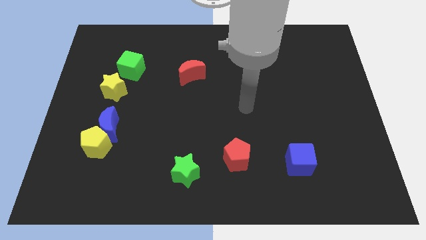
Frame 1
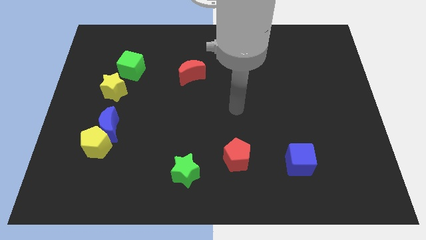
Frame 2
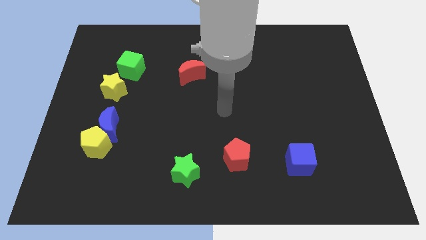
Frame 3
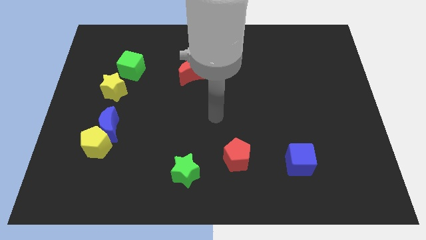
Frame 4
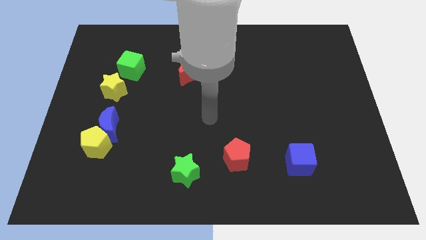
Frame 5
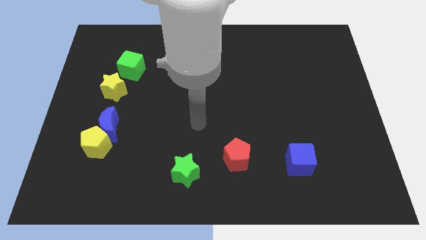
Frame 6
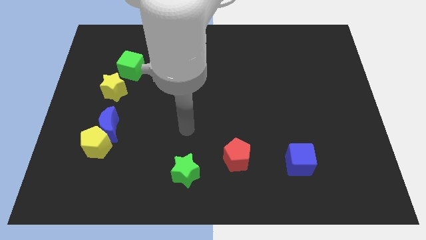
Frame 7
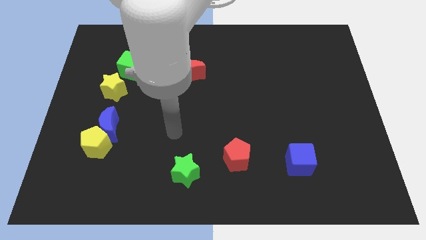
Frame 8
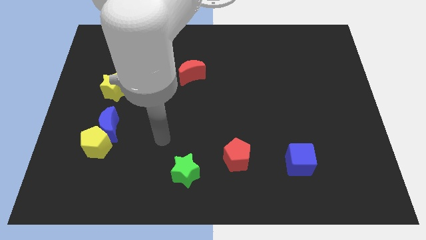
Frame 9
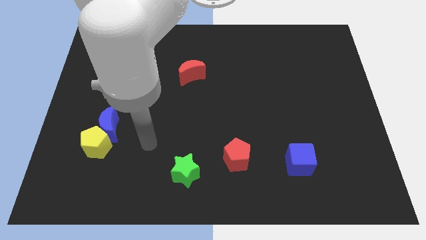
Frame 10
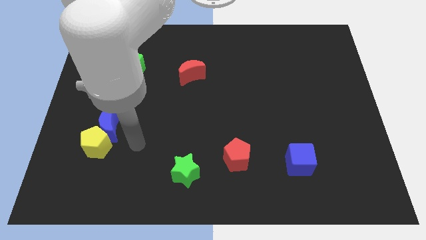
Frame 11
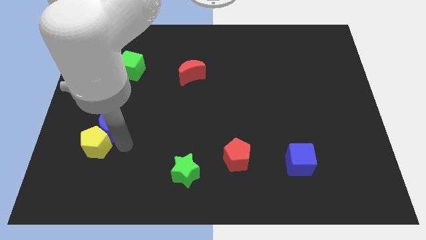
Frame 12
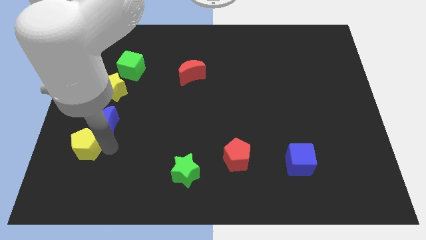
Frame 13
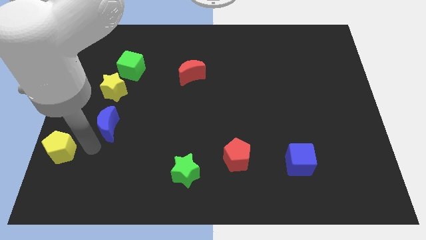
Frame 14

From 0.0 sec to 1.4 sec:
move the blue moon away from the yellow pentagon

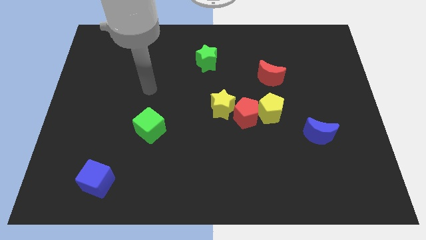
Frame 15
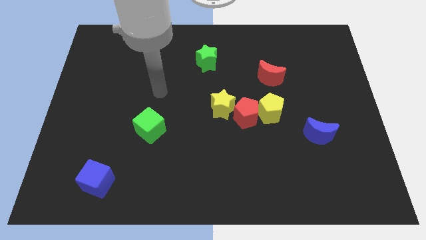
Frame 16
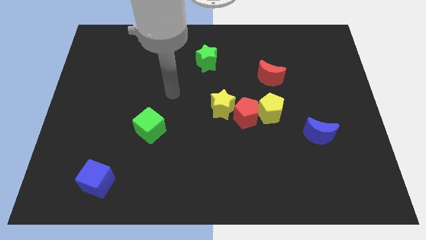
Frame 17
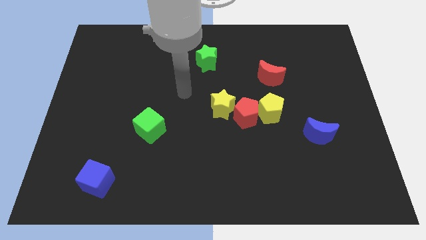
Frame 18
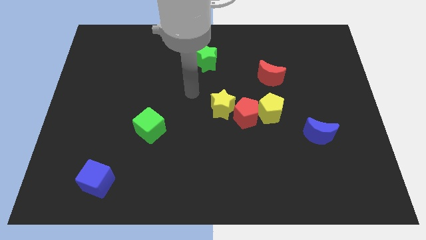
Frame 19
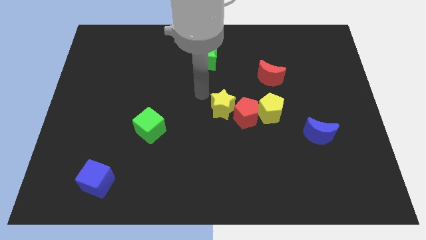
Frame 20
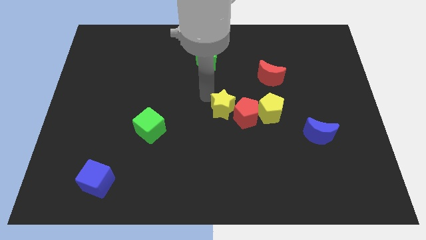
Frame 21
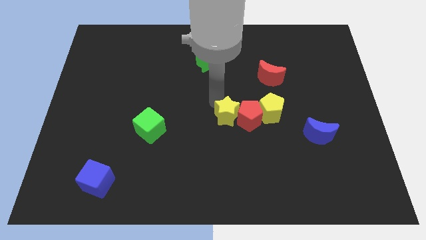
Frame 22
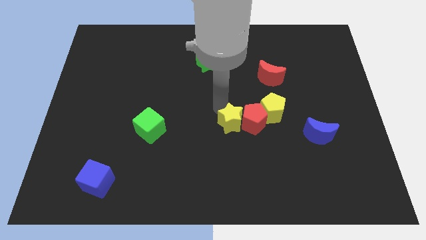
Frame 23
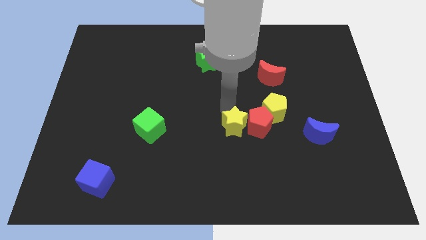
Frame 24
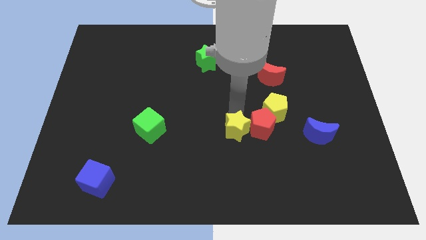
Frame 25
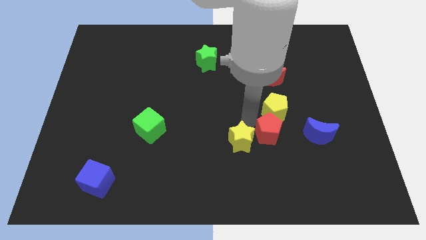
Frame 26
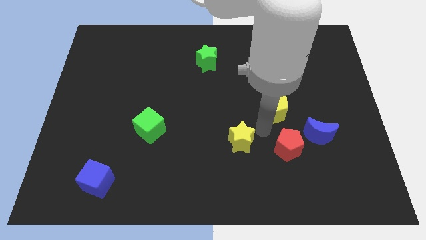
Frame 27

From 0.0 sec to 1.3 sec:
separate the yellow pentagon from the red pentagon

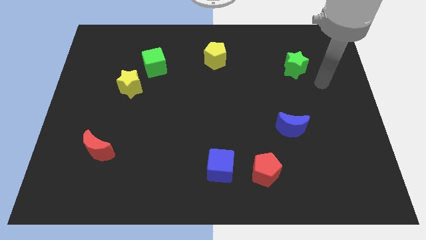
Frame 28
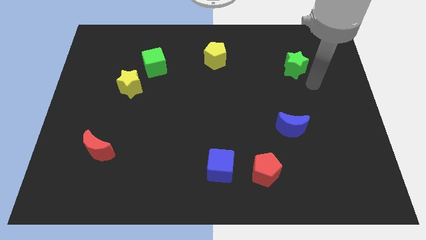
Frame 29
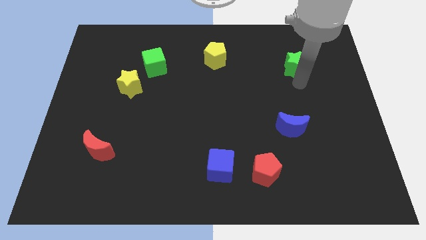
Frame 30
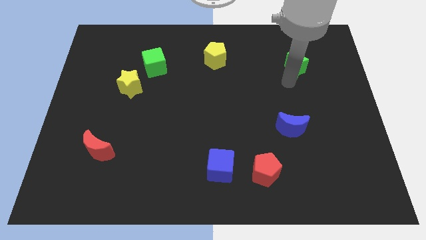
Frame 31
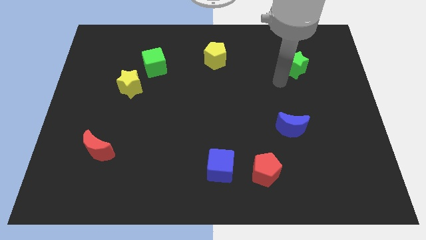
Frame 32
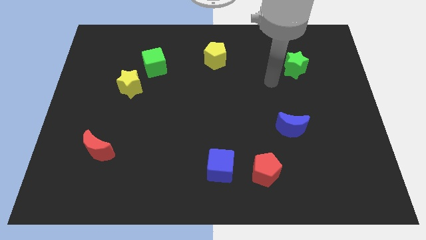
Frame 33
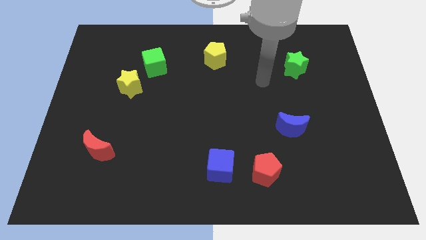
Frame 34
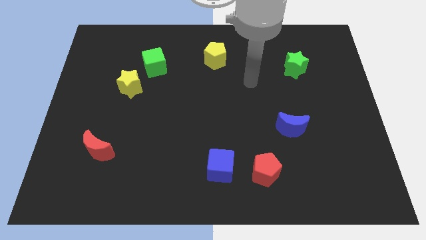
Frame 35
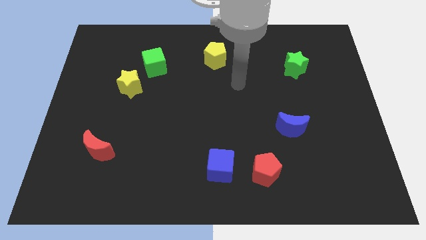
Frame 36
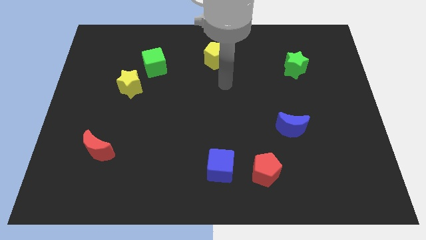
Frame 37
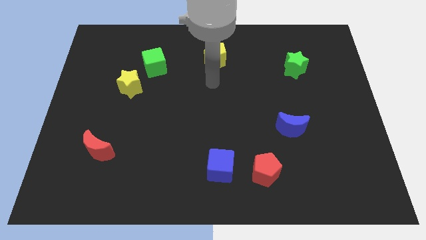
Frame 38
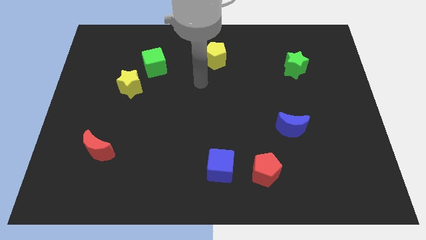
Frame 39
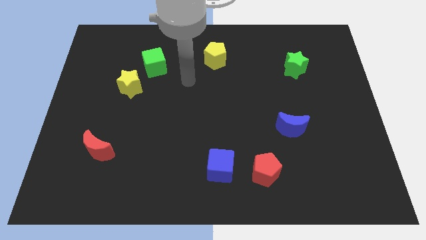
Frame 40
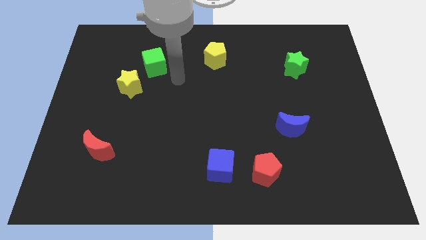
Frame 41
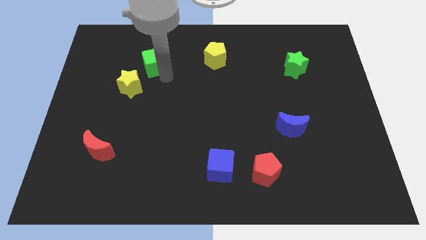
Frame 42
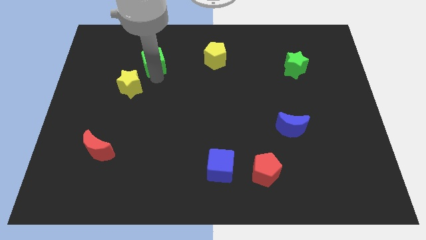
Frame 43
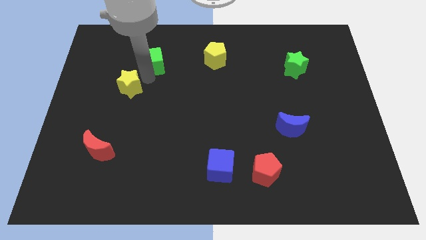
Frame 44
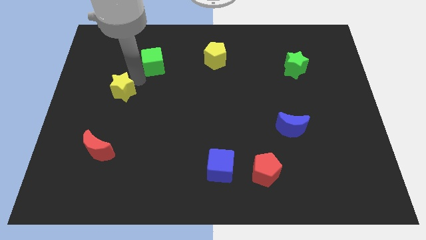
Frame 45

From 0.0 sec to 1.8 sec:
separate the green cube from the yellow star

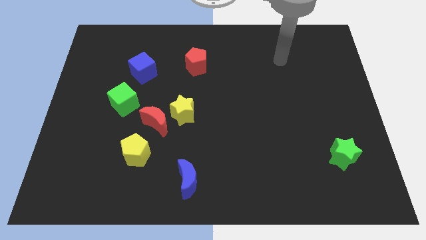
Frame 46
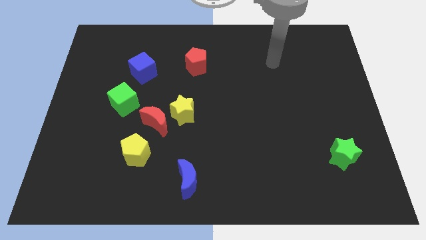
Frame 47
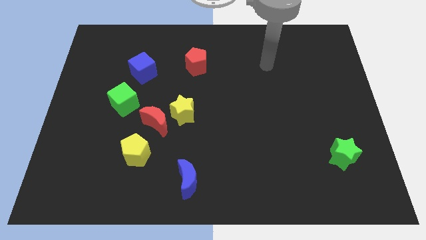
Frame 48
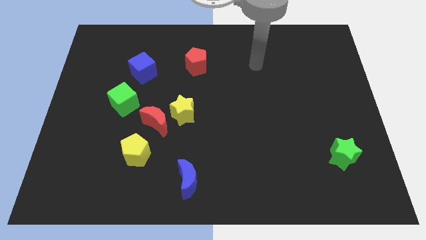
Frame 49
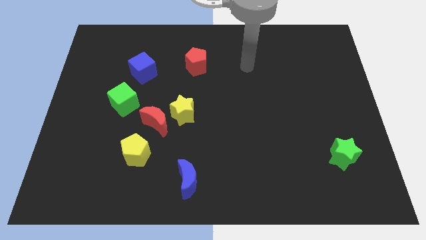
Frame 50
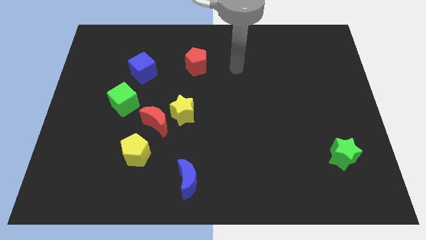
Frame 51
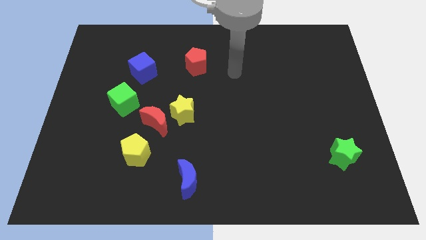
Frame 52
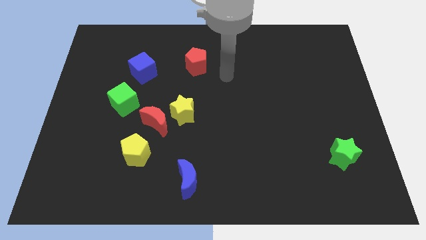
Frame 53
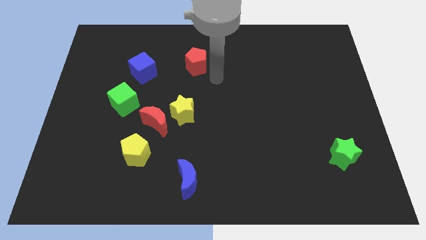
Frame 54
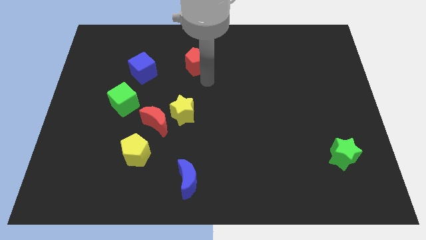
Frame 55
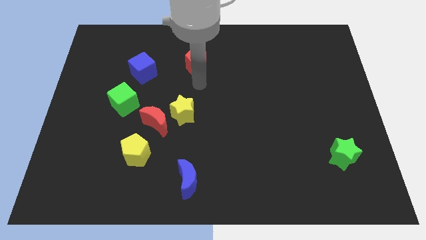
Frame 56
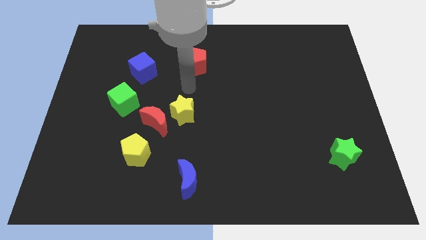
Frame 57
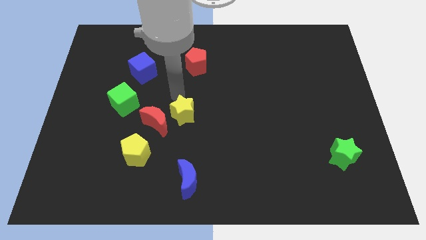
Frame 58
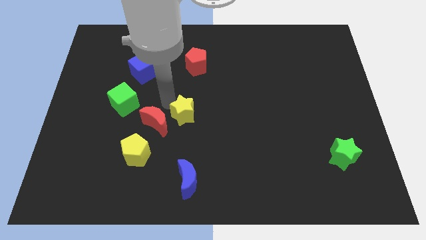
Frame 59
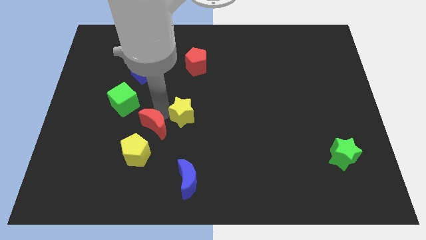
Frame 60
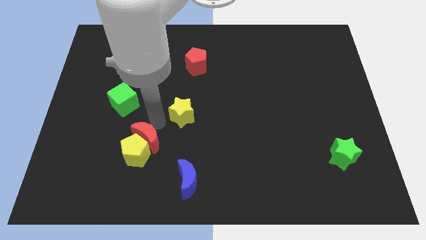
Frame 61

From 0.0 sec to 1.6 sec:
pull the yellow star apart from the red moon

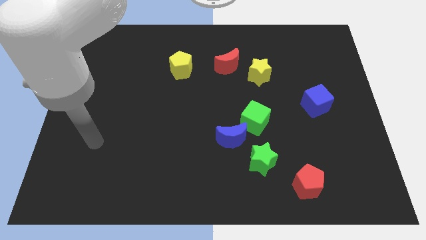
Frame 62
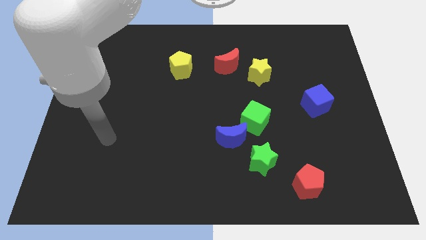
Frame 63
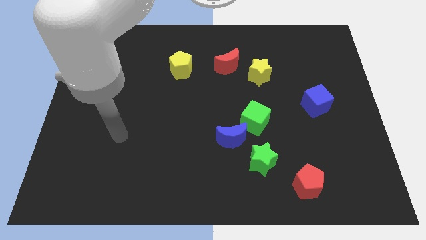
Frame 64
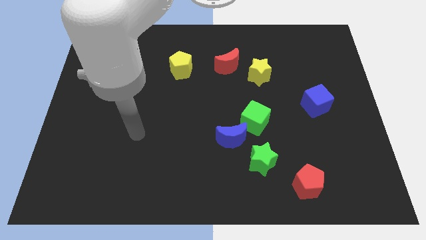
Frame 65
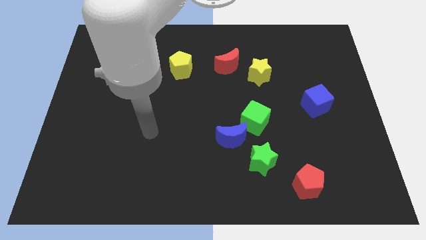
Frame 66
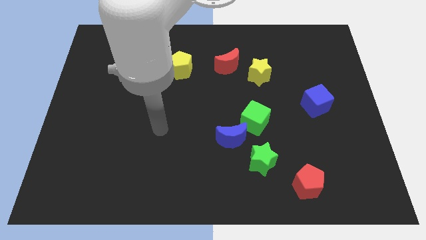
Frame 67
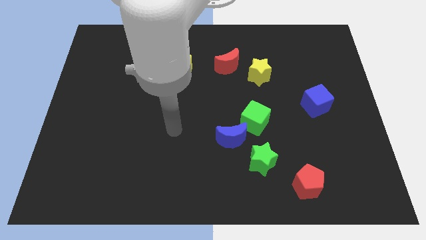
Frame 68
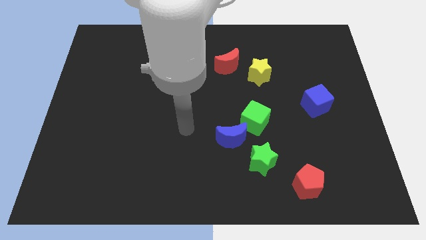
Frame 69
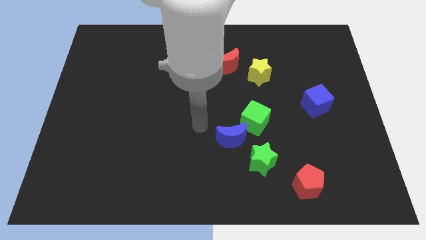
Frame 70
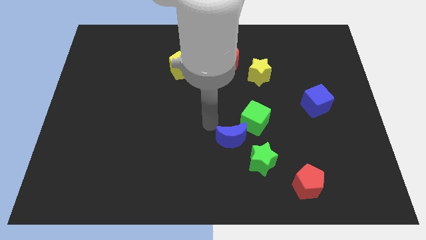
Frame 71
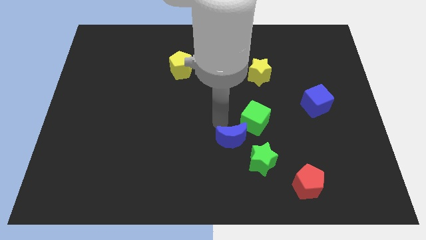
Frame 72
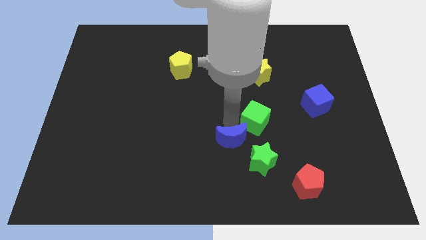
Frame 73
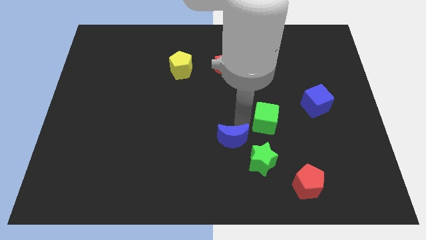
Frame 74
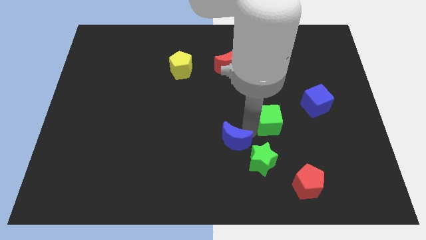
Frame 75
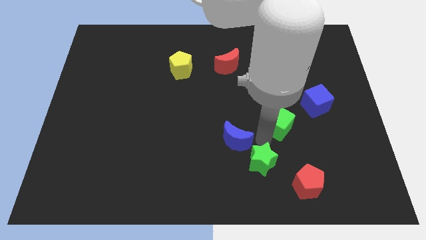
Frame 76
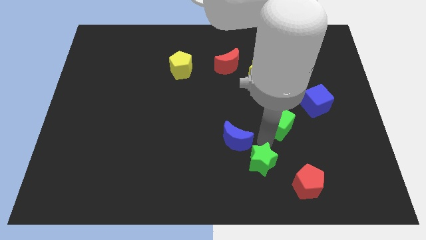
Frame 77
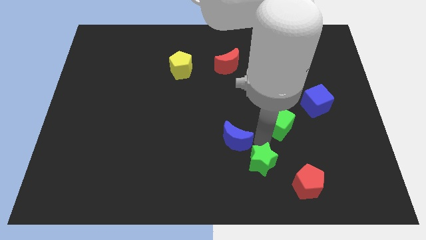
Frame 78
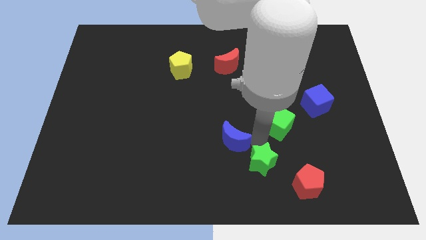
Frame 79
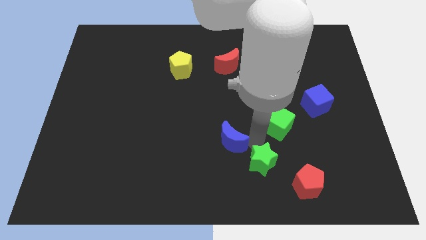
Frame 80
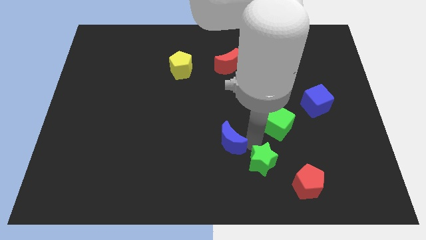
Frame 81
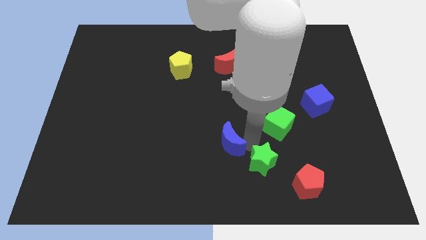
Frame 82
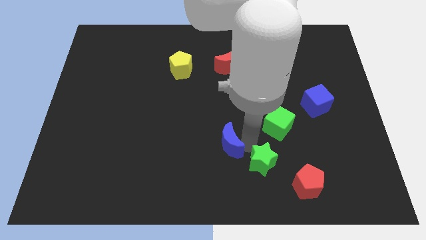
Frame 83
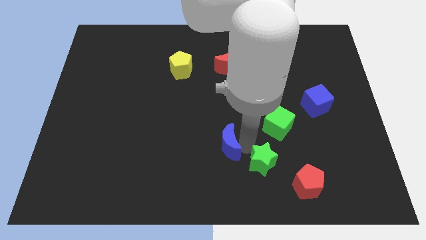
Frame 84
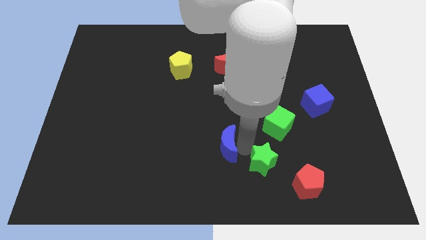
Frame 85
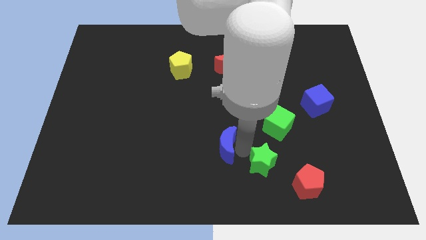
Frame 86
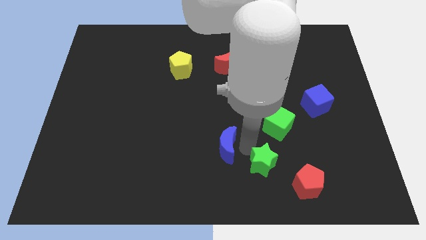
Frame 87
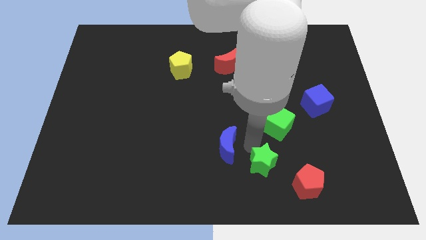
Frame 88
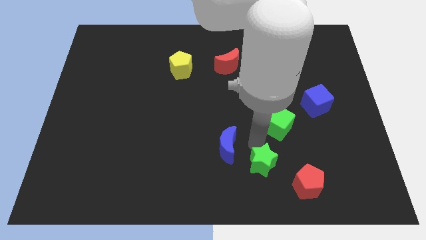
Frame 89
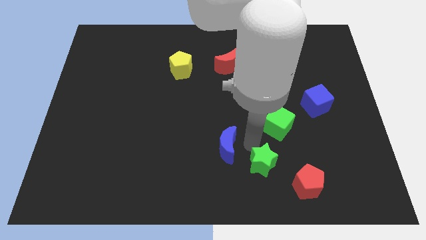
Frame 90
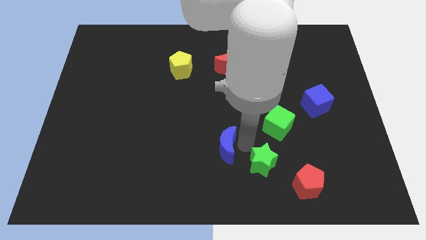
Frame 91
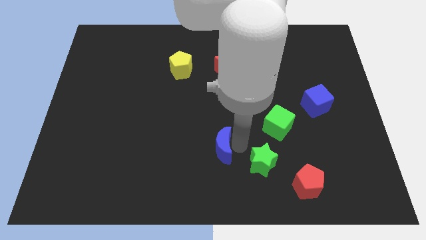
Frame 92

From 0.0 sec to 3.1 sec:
separate the blue moon from the green cube and green star
